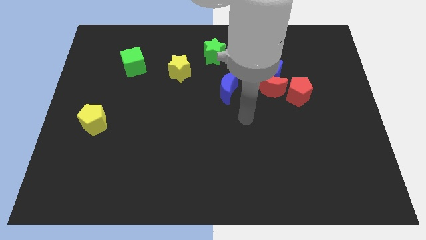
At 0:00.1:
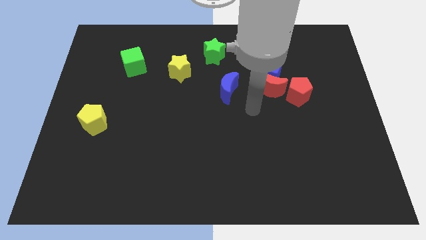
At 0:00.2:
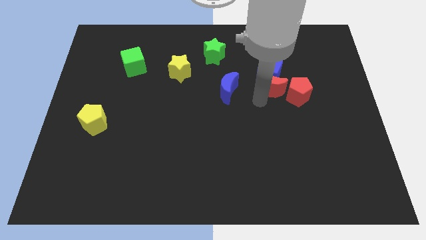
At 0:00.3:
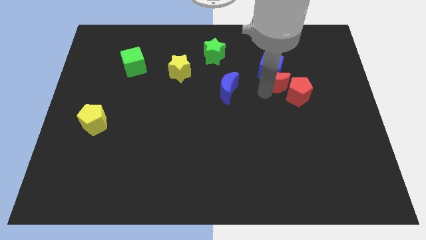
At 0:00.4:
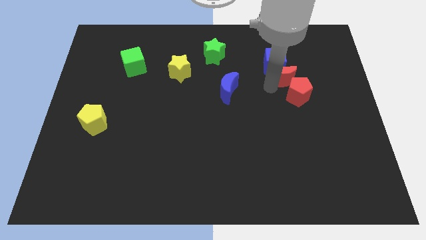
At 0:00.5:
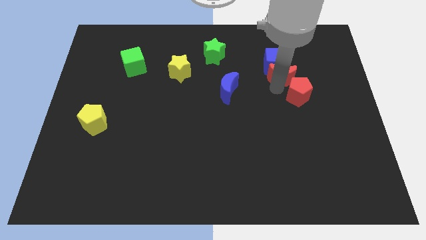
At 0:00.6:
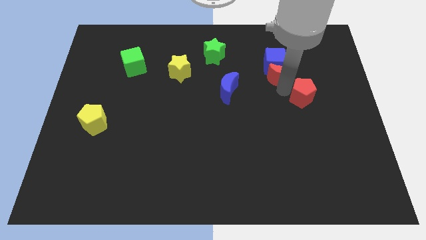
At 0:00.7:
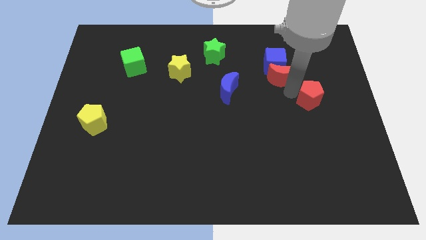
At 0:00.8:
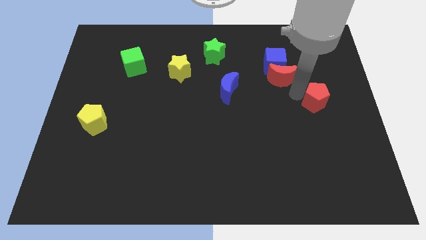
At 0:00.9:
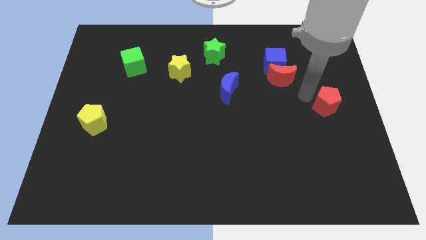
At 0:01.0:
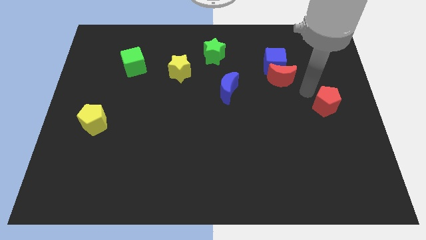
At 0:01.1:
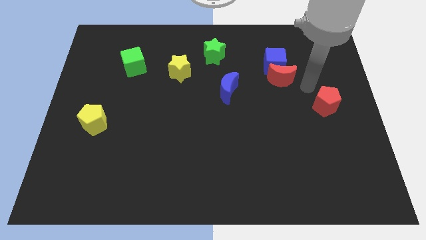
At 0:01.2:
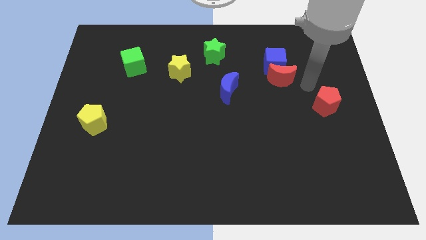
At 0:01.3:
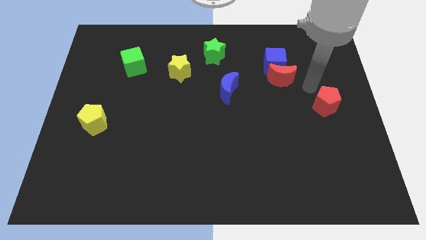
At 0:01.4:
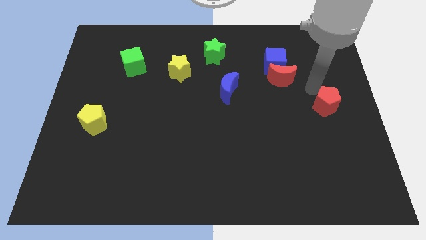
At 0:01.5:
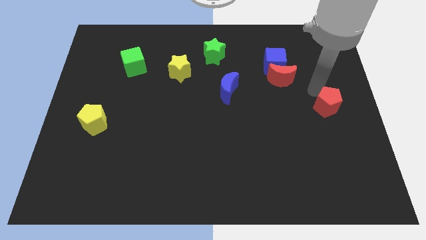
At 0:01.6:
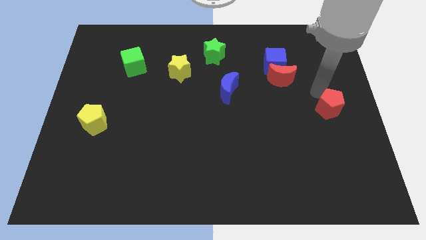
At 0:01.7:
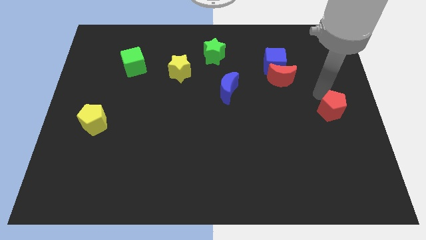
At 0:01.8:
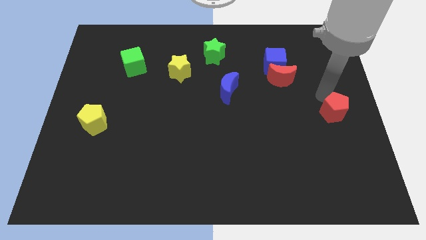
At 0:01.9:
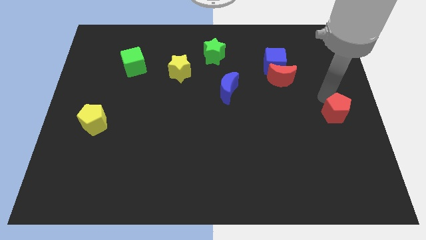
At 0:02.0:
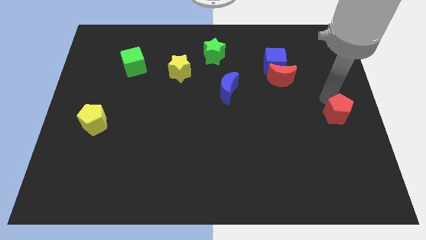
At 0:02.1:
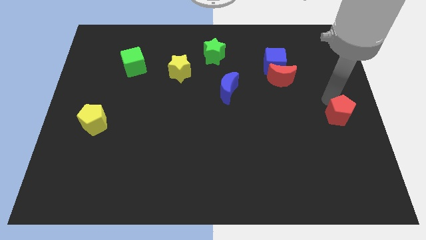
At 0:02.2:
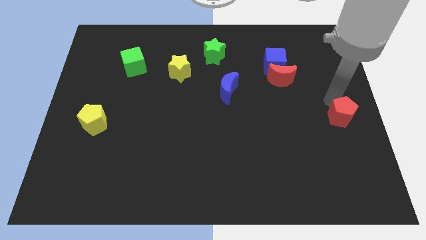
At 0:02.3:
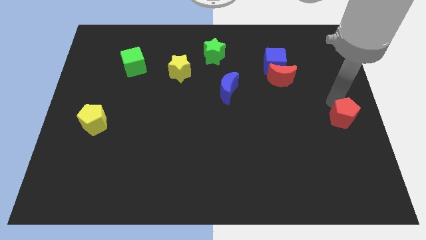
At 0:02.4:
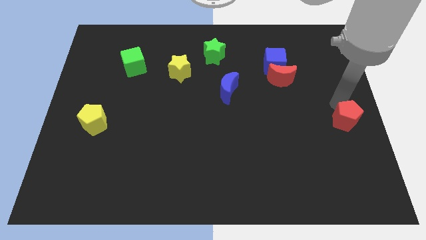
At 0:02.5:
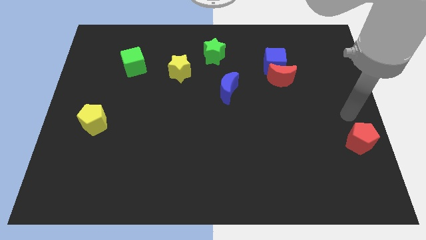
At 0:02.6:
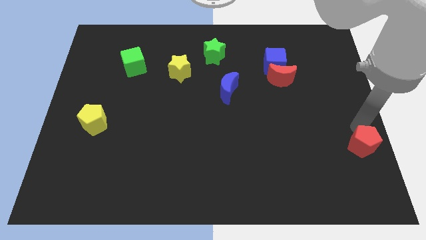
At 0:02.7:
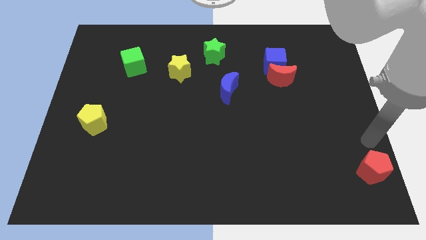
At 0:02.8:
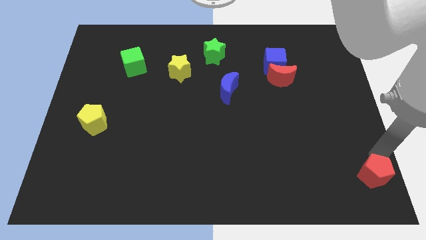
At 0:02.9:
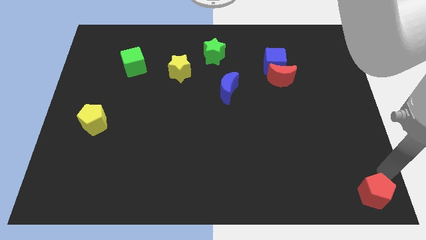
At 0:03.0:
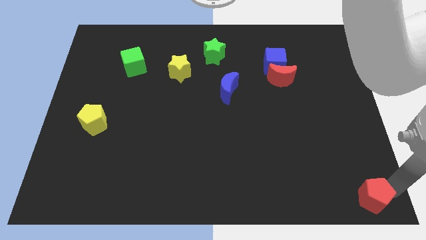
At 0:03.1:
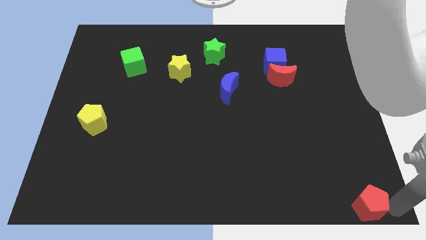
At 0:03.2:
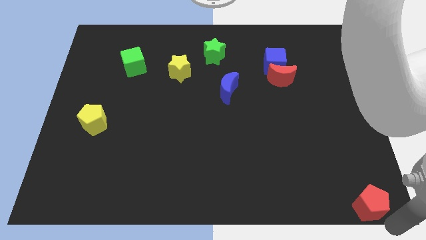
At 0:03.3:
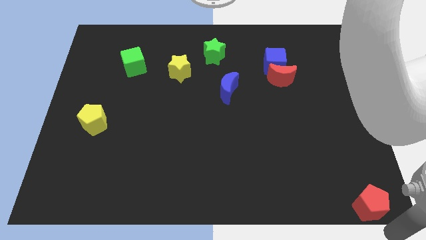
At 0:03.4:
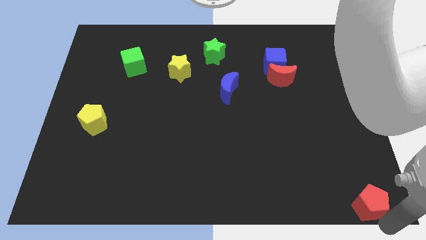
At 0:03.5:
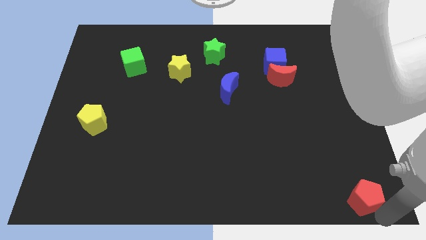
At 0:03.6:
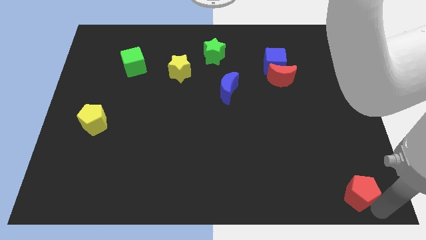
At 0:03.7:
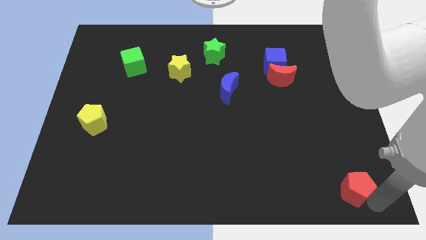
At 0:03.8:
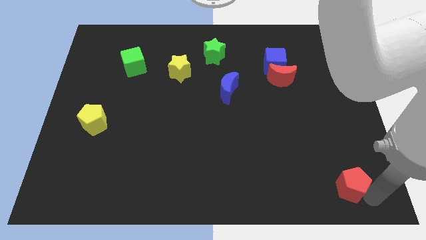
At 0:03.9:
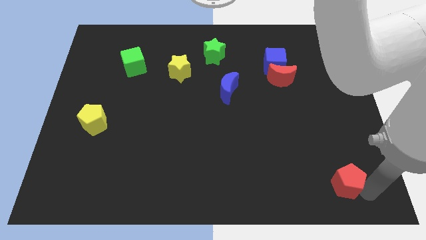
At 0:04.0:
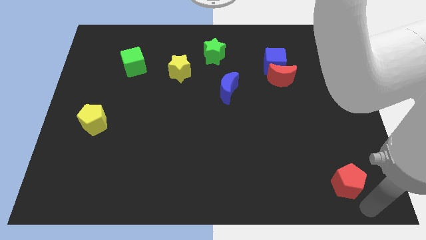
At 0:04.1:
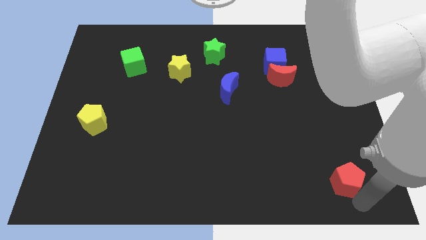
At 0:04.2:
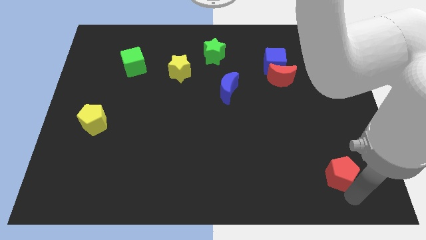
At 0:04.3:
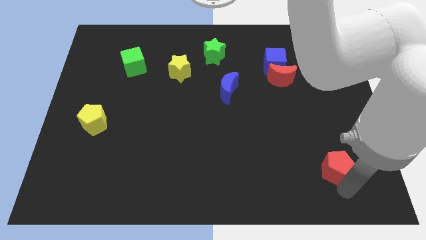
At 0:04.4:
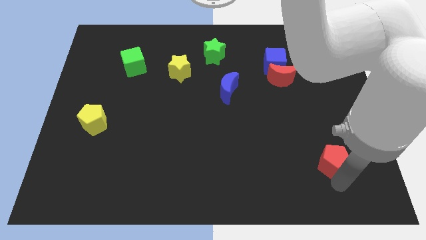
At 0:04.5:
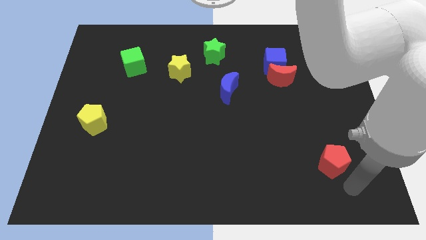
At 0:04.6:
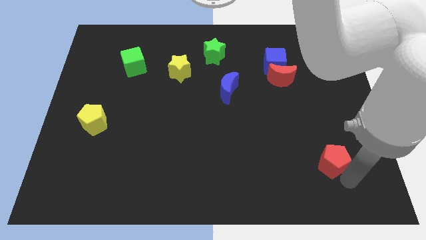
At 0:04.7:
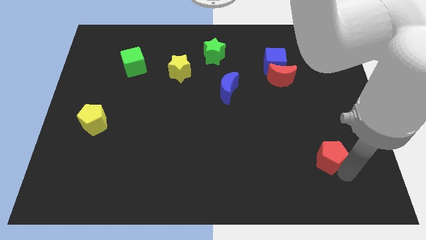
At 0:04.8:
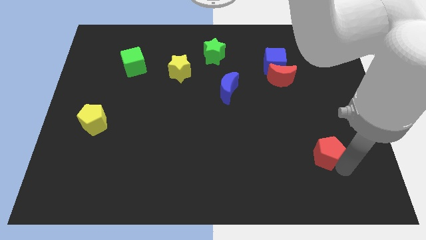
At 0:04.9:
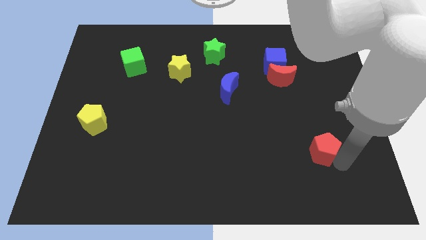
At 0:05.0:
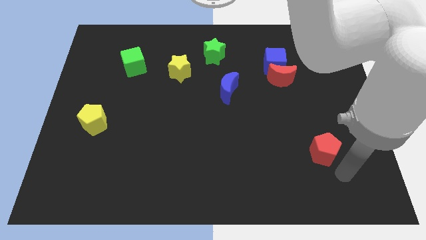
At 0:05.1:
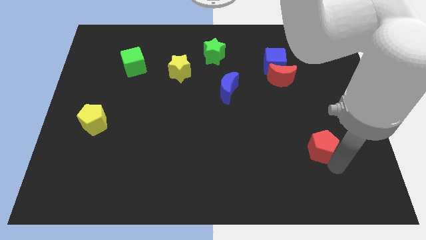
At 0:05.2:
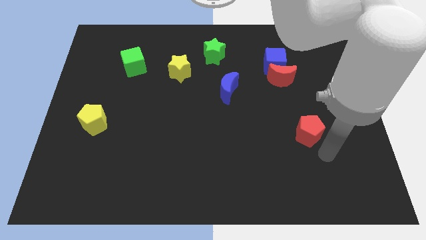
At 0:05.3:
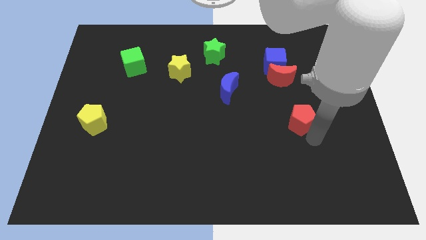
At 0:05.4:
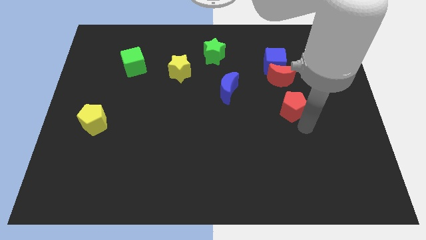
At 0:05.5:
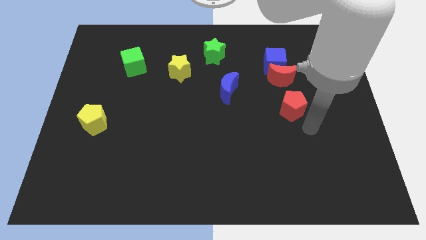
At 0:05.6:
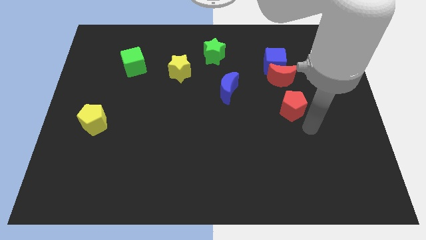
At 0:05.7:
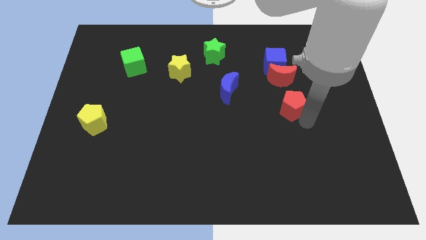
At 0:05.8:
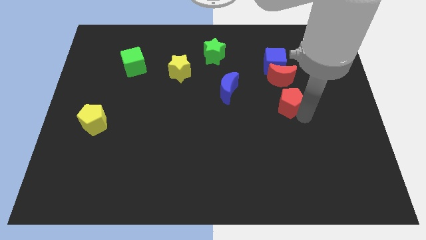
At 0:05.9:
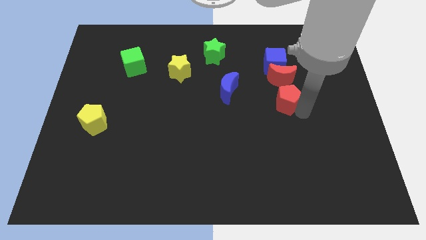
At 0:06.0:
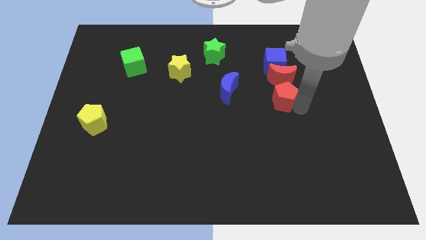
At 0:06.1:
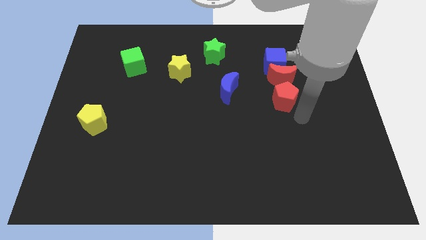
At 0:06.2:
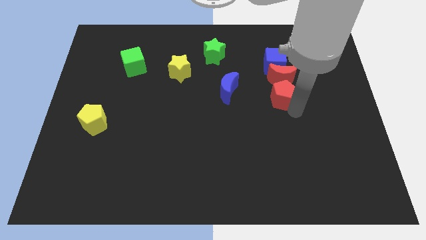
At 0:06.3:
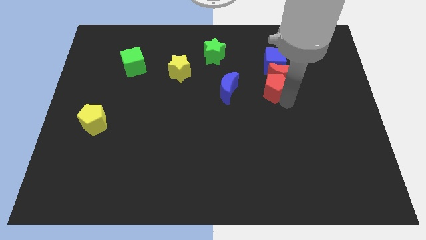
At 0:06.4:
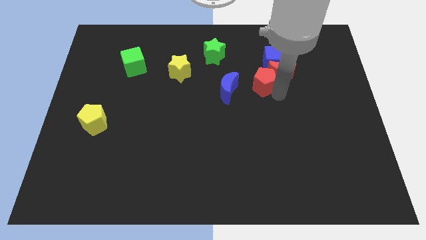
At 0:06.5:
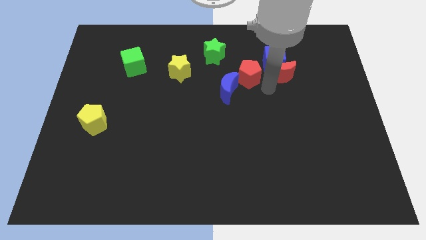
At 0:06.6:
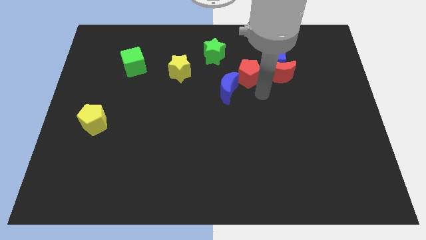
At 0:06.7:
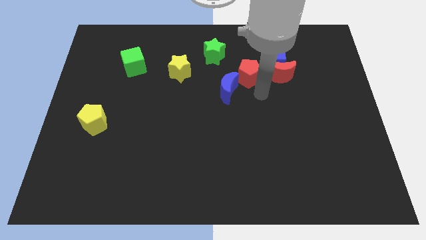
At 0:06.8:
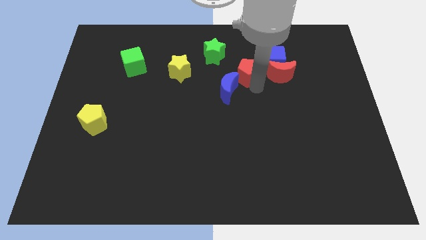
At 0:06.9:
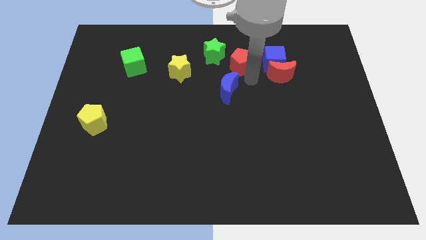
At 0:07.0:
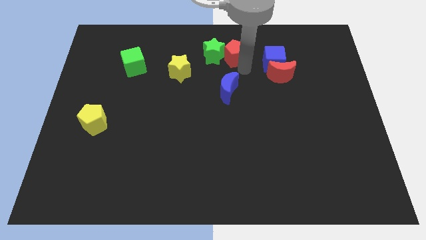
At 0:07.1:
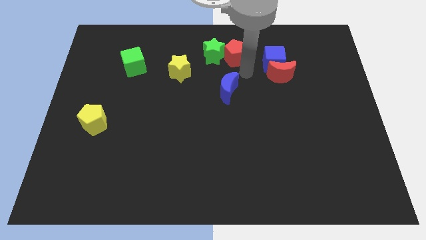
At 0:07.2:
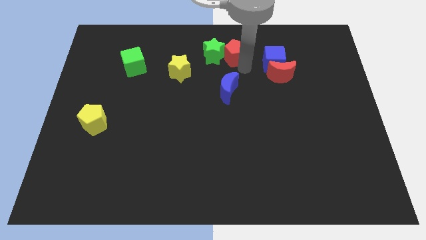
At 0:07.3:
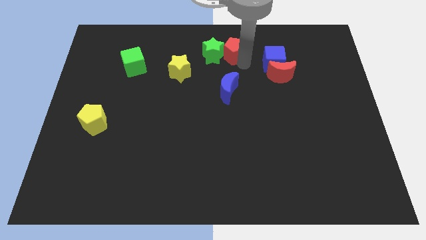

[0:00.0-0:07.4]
put the red pentagon to the top side
